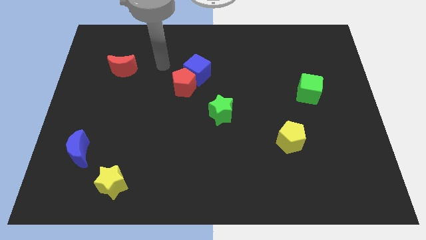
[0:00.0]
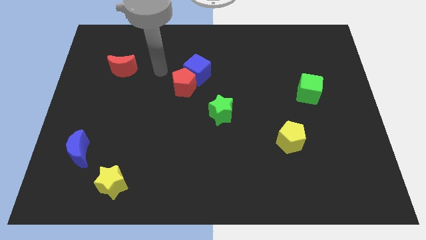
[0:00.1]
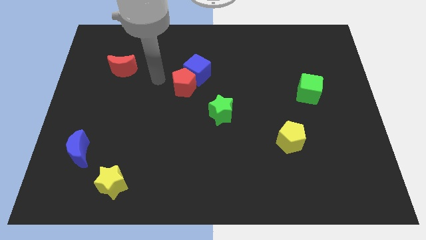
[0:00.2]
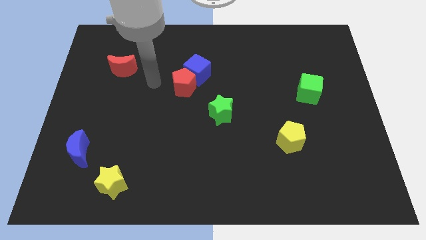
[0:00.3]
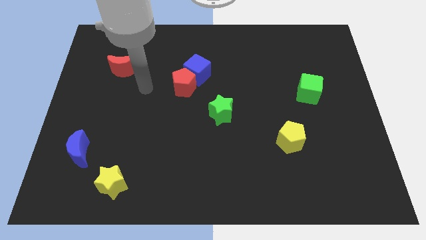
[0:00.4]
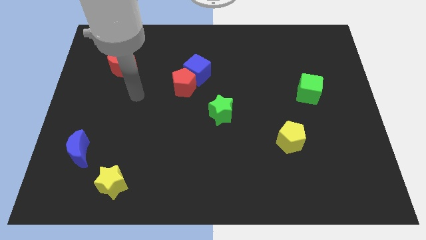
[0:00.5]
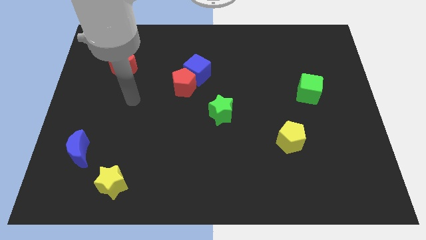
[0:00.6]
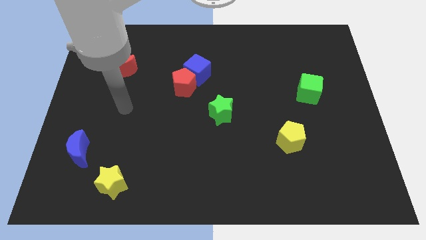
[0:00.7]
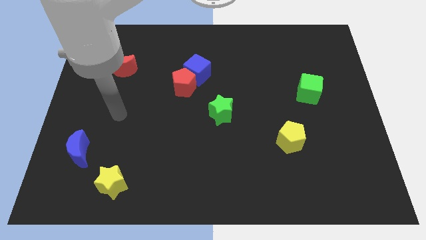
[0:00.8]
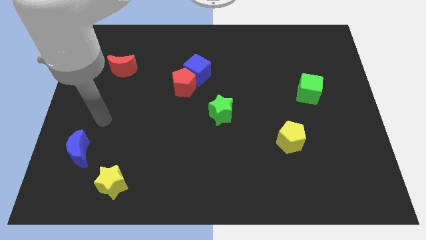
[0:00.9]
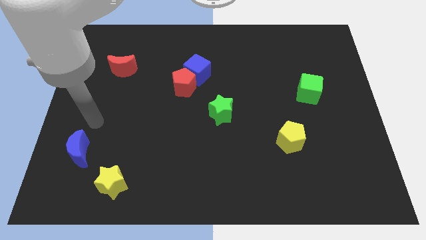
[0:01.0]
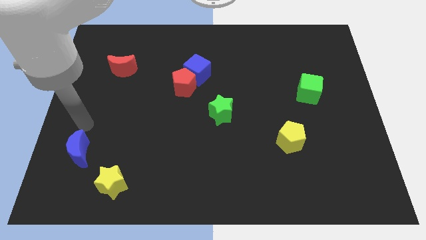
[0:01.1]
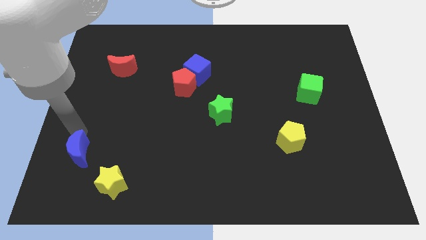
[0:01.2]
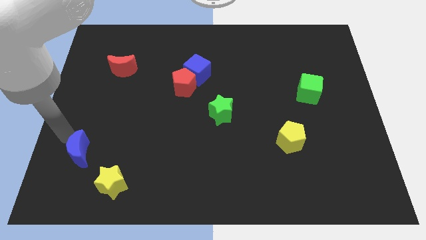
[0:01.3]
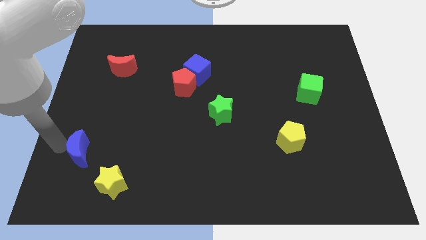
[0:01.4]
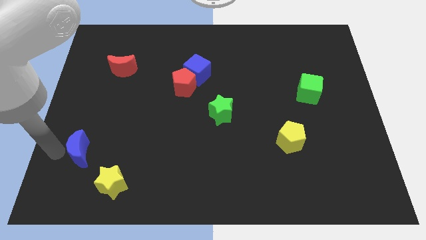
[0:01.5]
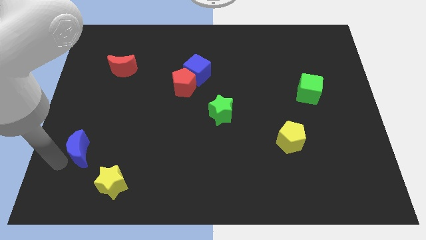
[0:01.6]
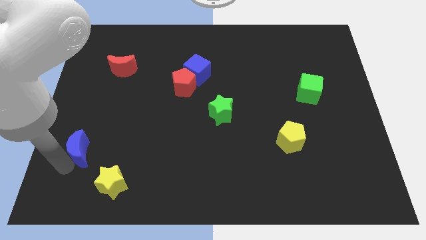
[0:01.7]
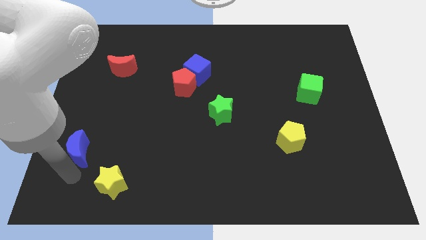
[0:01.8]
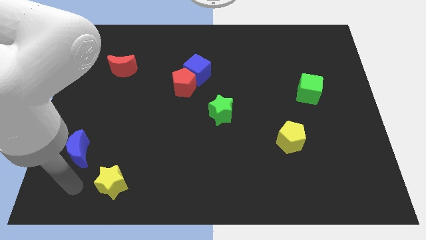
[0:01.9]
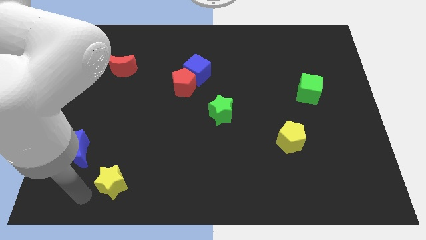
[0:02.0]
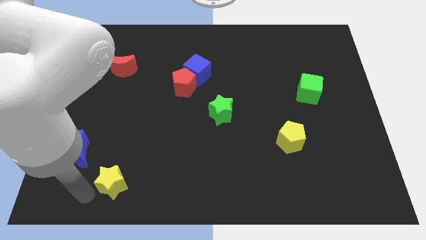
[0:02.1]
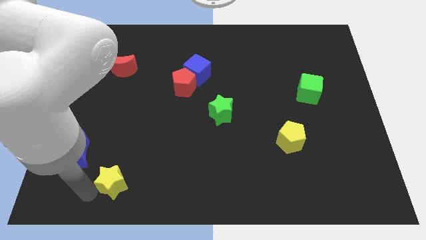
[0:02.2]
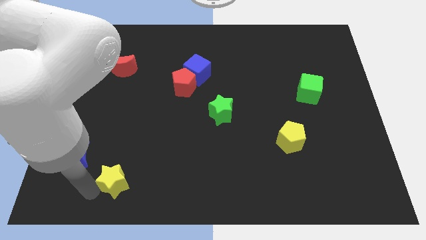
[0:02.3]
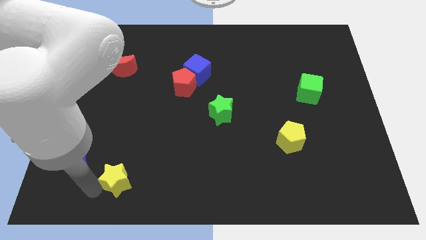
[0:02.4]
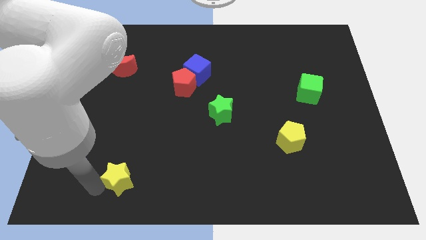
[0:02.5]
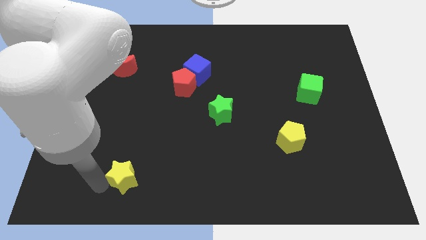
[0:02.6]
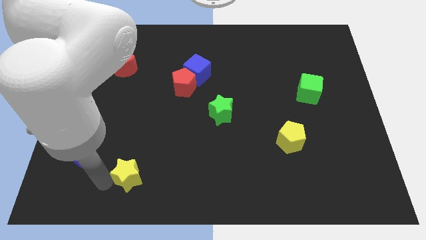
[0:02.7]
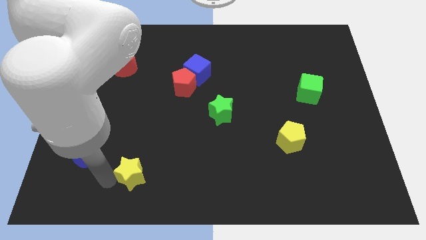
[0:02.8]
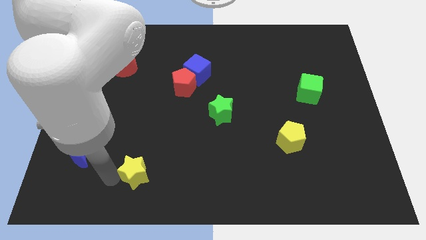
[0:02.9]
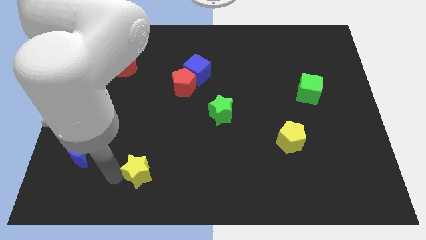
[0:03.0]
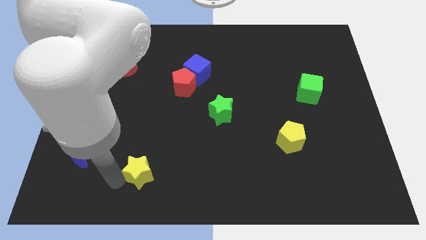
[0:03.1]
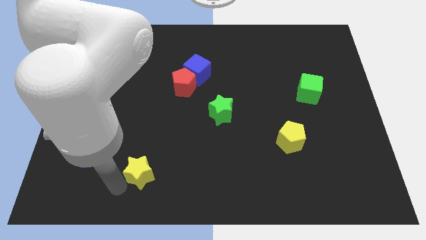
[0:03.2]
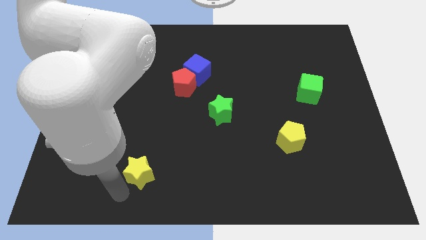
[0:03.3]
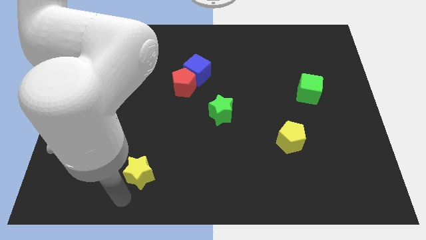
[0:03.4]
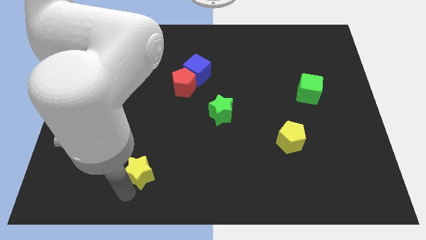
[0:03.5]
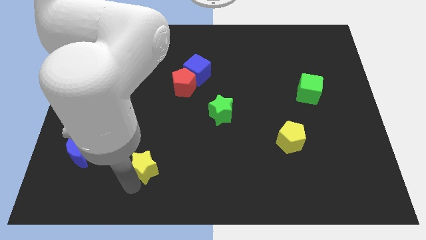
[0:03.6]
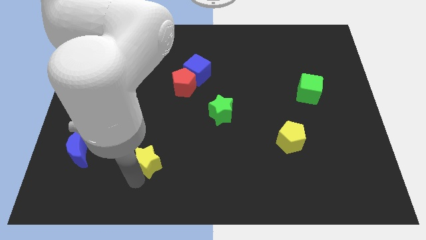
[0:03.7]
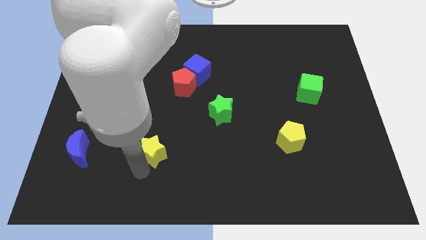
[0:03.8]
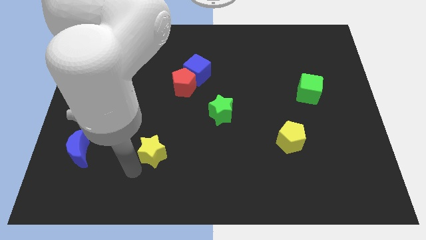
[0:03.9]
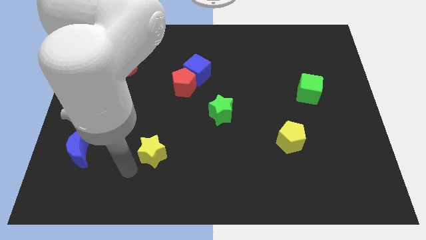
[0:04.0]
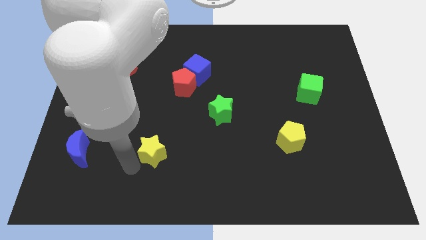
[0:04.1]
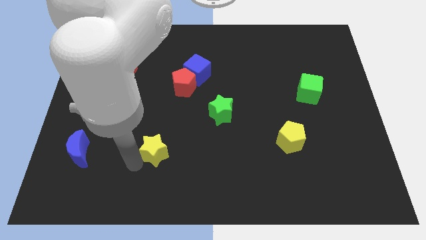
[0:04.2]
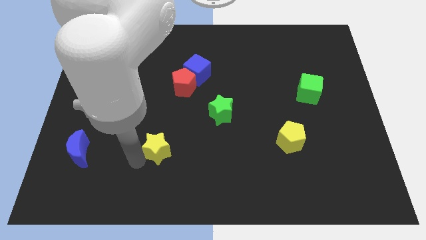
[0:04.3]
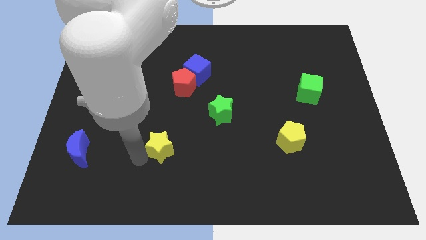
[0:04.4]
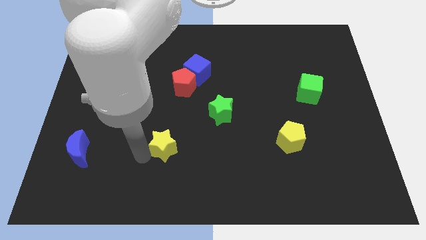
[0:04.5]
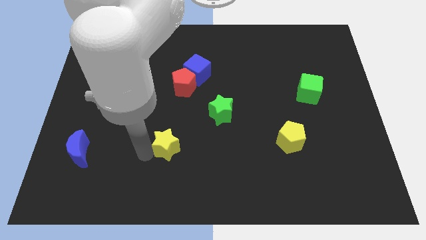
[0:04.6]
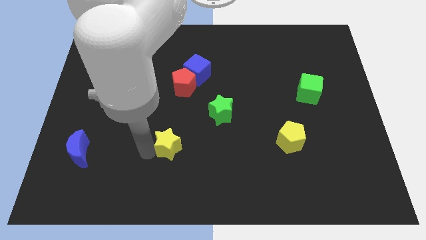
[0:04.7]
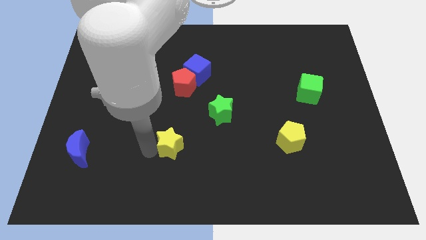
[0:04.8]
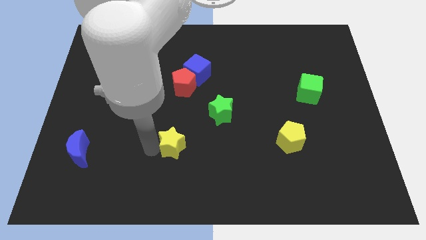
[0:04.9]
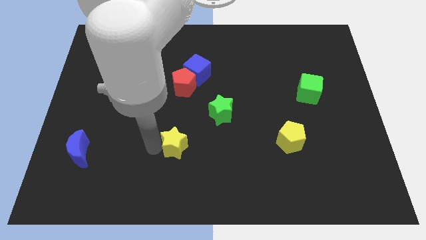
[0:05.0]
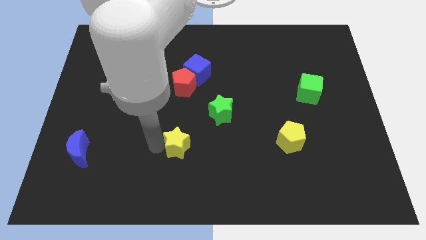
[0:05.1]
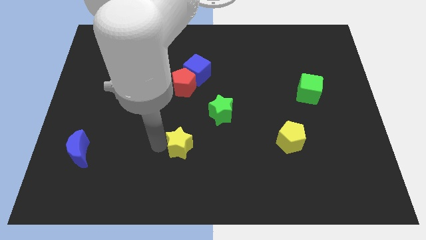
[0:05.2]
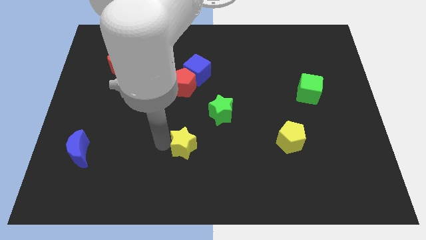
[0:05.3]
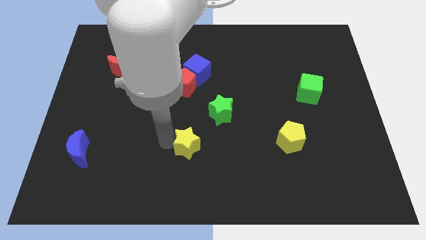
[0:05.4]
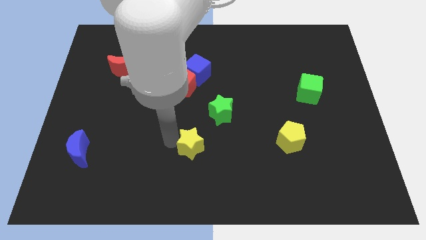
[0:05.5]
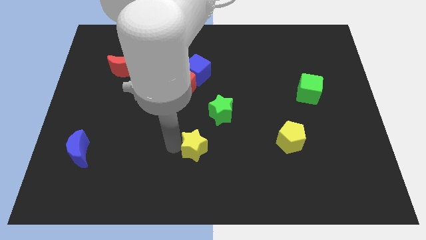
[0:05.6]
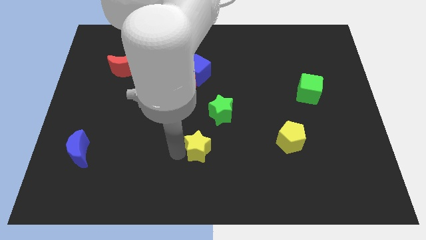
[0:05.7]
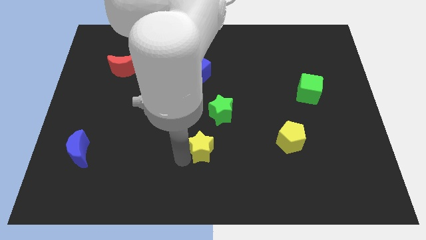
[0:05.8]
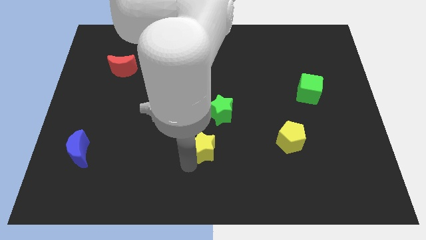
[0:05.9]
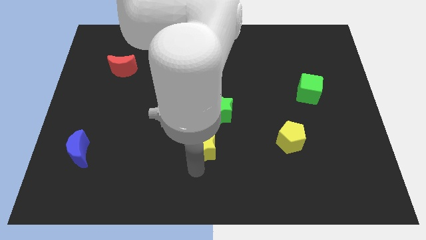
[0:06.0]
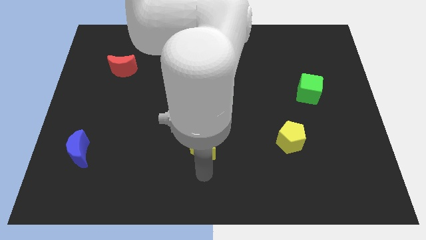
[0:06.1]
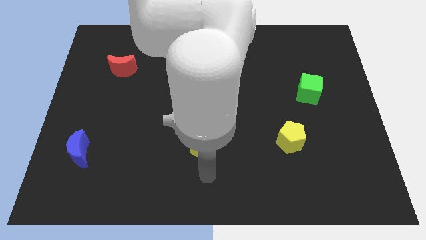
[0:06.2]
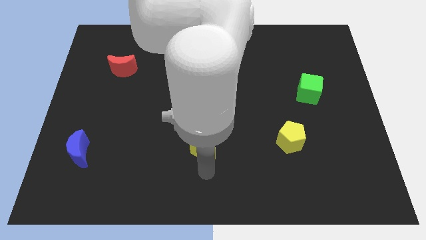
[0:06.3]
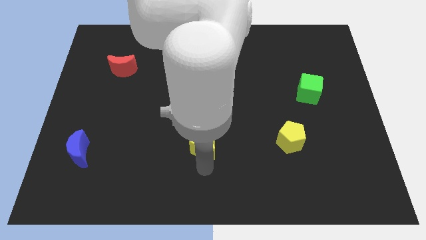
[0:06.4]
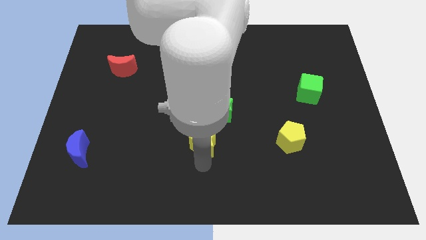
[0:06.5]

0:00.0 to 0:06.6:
slide the yellow star to the center of the board
